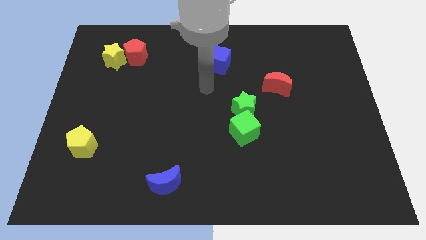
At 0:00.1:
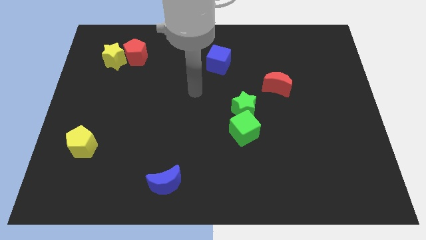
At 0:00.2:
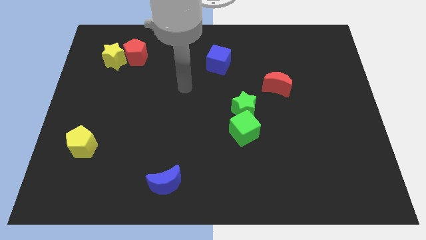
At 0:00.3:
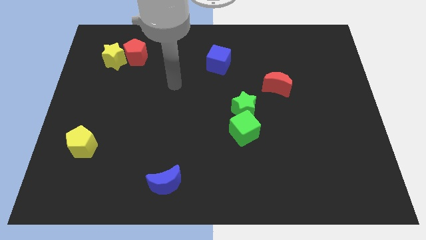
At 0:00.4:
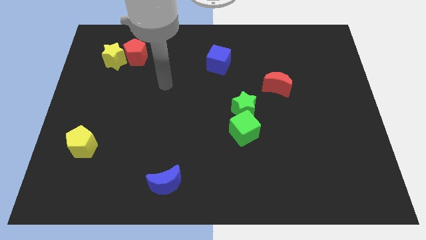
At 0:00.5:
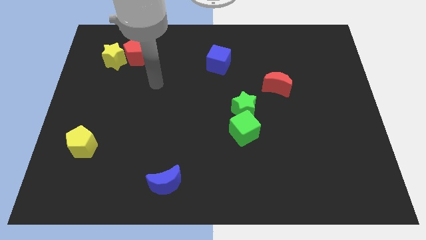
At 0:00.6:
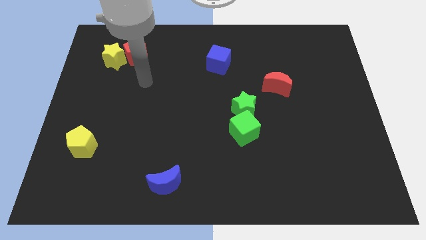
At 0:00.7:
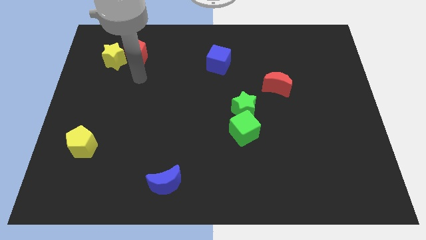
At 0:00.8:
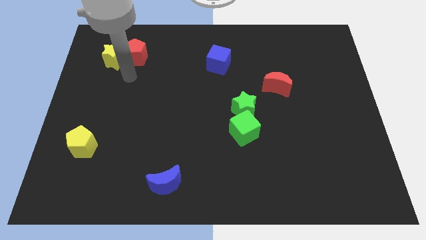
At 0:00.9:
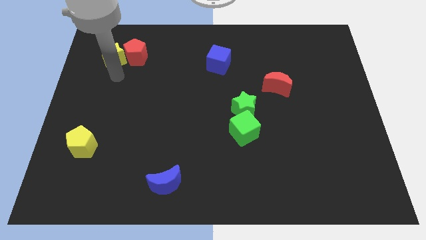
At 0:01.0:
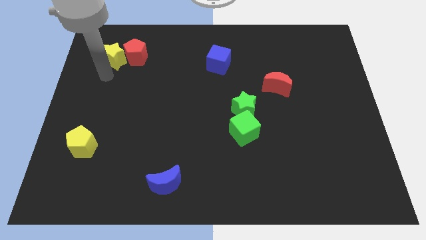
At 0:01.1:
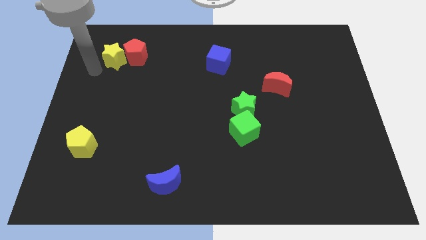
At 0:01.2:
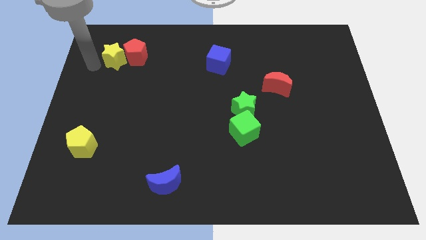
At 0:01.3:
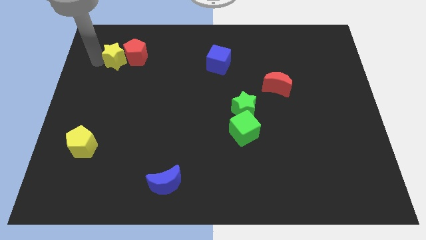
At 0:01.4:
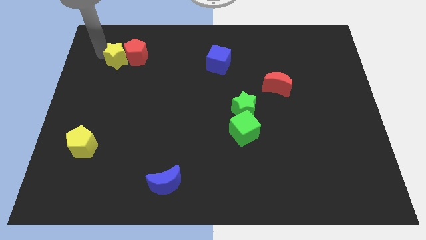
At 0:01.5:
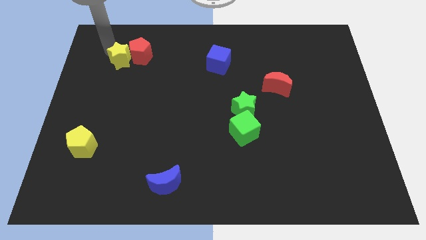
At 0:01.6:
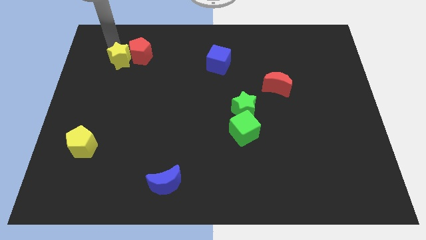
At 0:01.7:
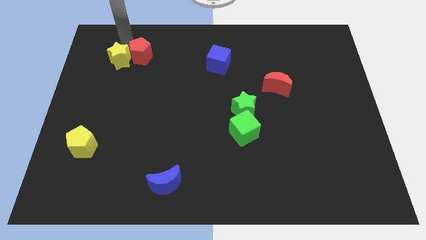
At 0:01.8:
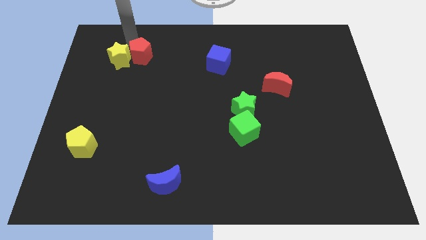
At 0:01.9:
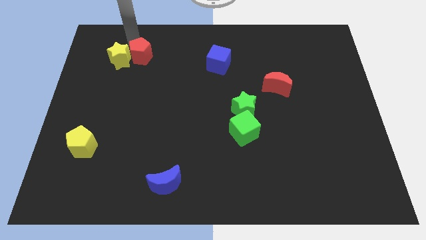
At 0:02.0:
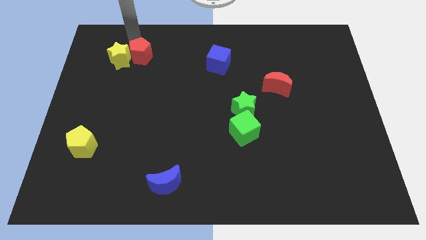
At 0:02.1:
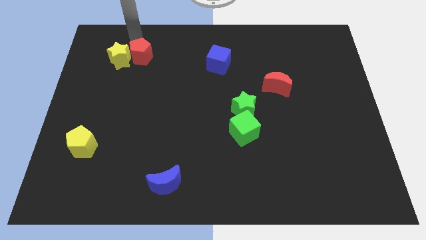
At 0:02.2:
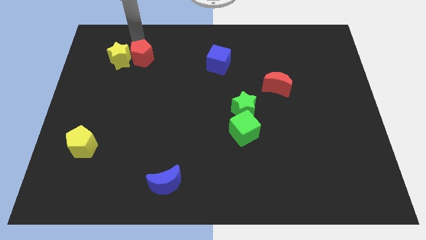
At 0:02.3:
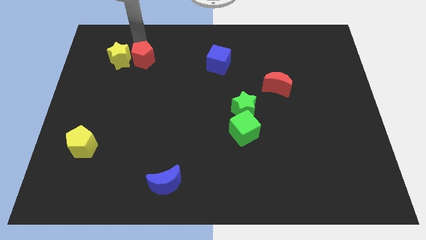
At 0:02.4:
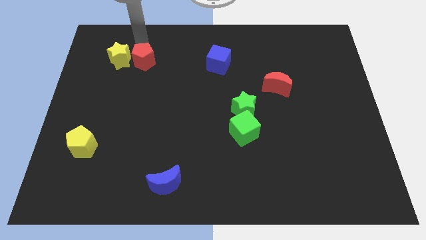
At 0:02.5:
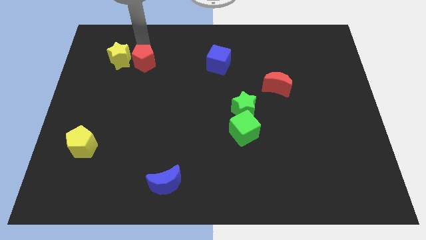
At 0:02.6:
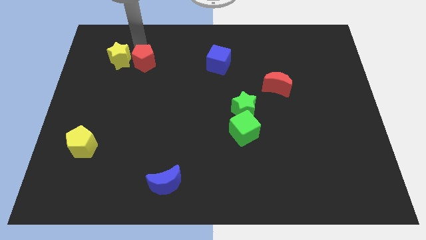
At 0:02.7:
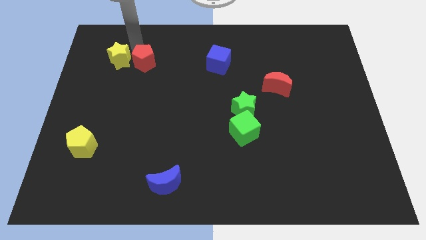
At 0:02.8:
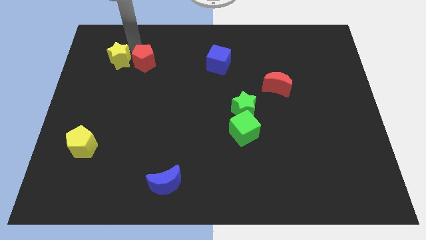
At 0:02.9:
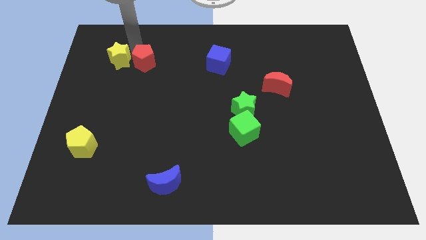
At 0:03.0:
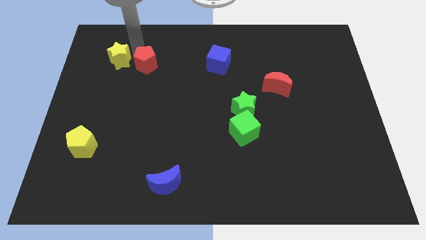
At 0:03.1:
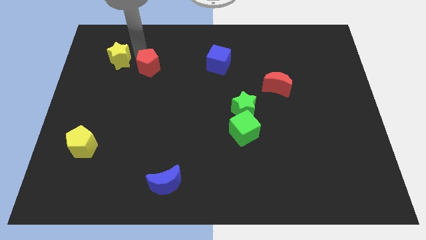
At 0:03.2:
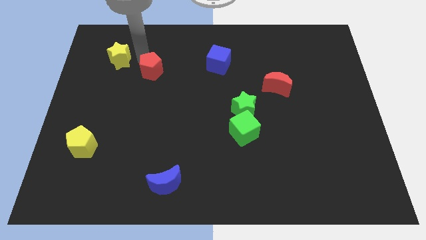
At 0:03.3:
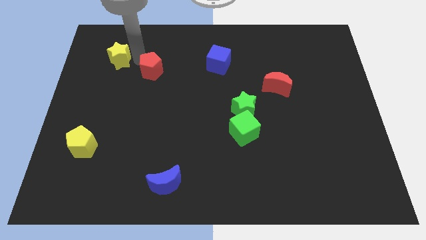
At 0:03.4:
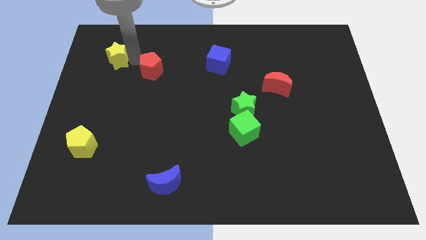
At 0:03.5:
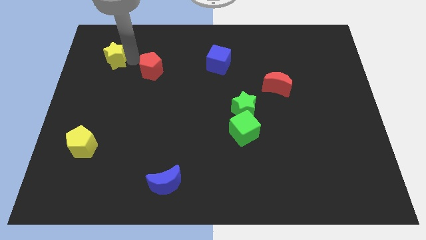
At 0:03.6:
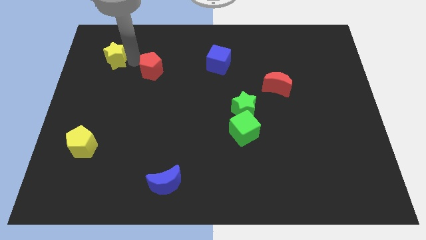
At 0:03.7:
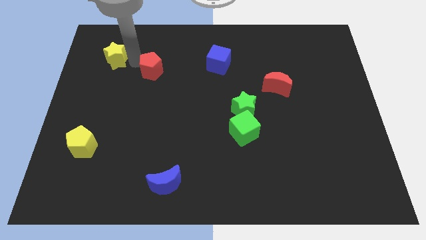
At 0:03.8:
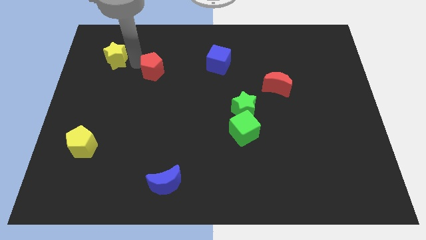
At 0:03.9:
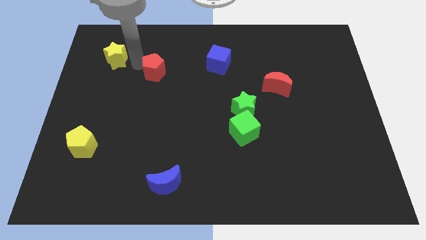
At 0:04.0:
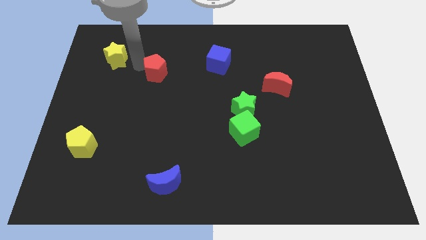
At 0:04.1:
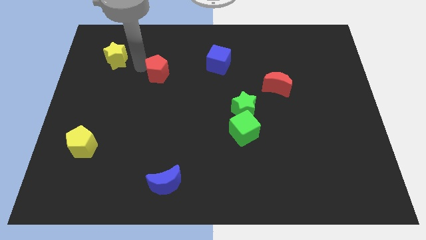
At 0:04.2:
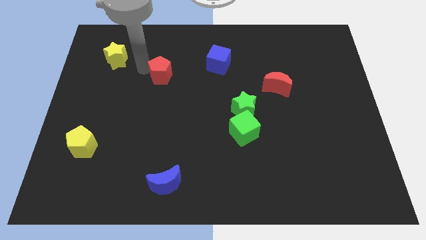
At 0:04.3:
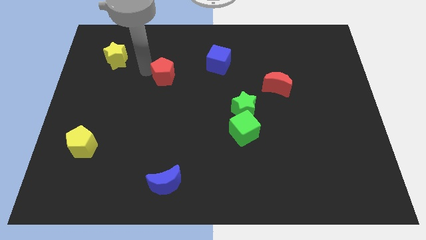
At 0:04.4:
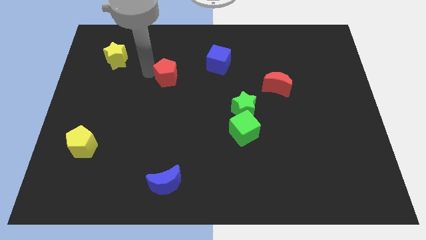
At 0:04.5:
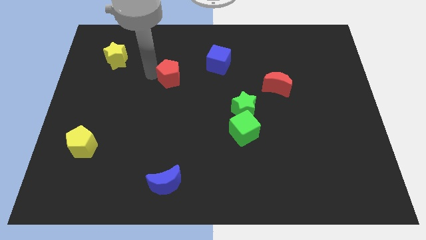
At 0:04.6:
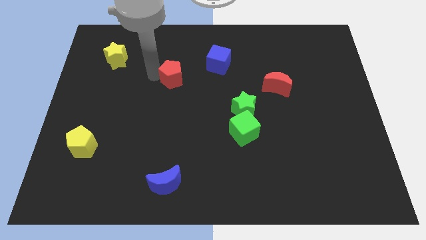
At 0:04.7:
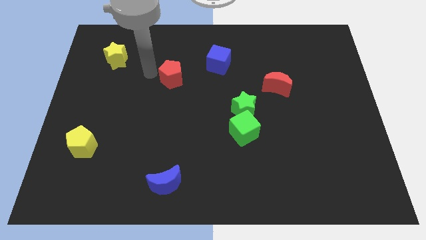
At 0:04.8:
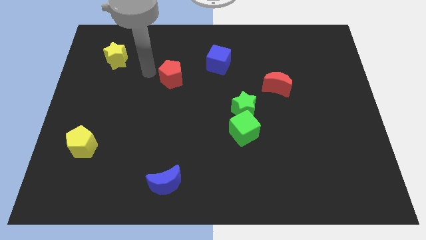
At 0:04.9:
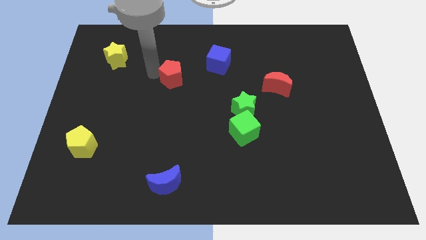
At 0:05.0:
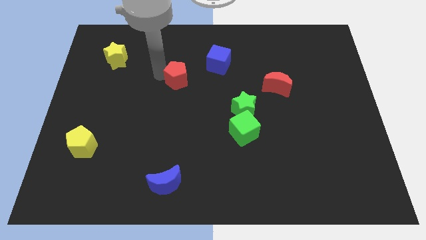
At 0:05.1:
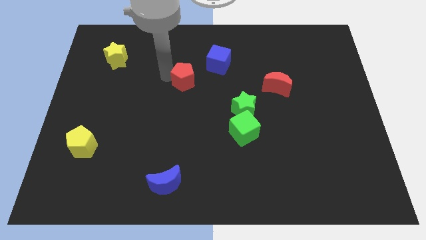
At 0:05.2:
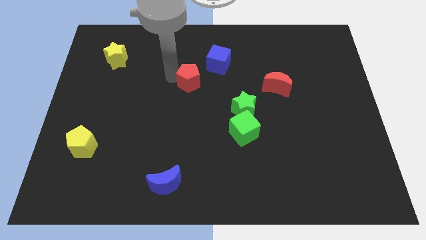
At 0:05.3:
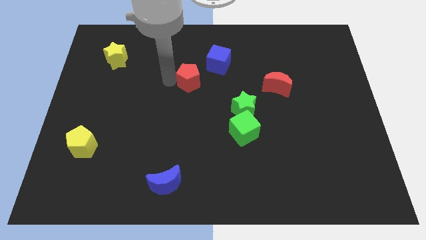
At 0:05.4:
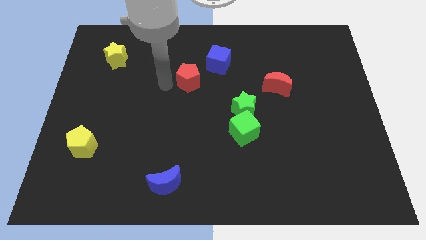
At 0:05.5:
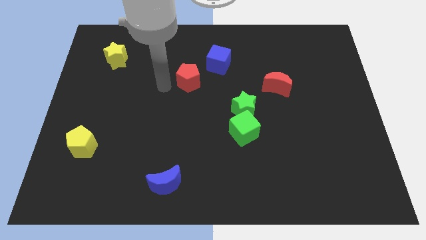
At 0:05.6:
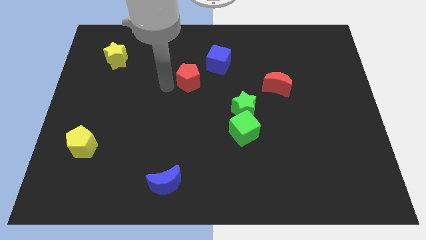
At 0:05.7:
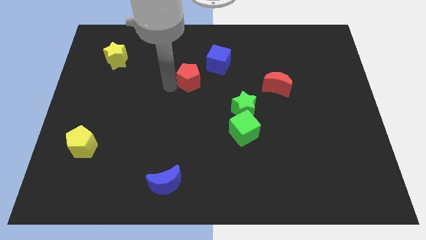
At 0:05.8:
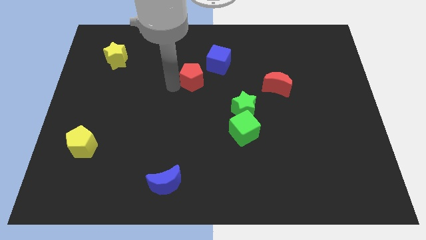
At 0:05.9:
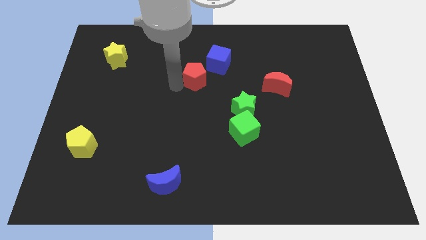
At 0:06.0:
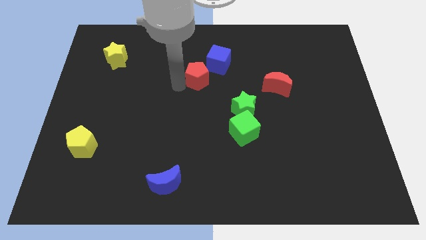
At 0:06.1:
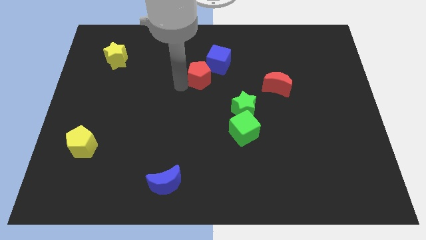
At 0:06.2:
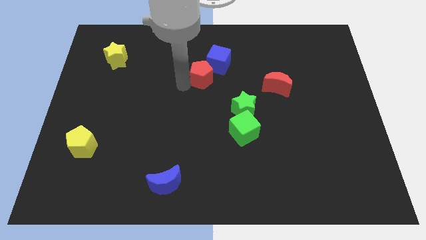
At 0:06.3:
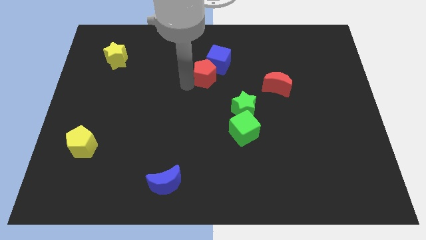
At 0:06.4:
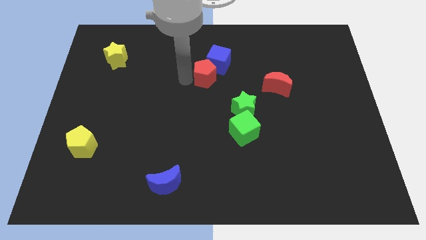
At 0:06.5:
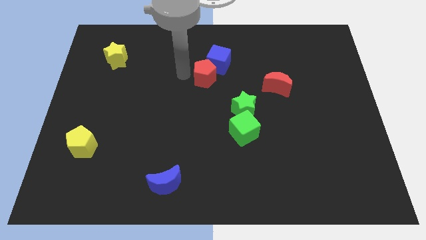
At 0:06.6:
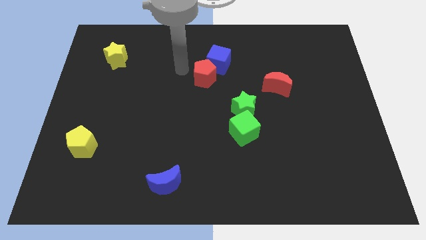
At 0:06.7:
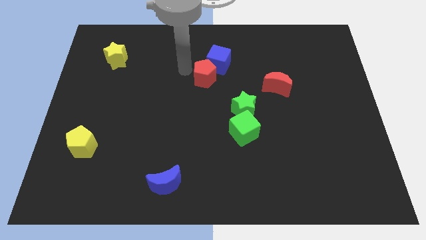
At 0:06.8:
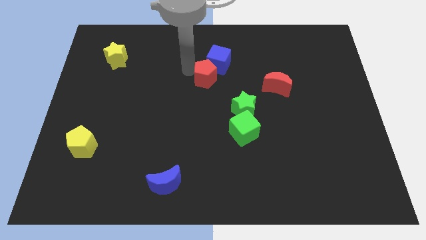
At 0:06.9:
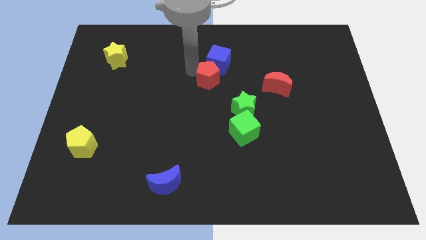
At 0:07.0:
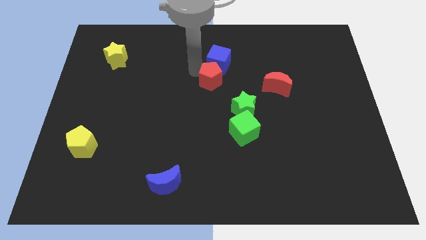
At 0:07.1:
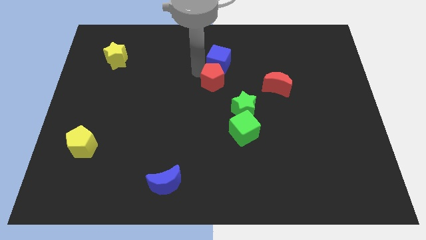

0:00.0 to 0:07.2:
move the red pentagon to the left of the red moon

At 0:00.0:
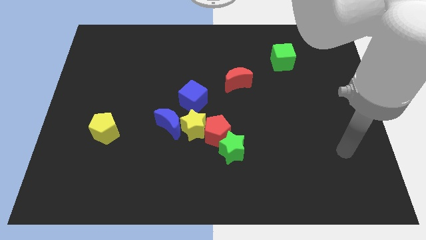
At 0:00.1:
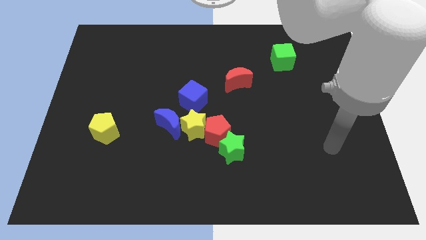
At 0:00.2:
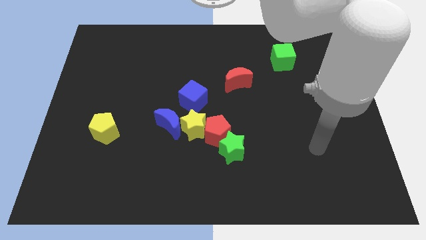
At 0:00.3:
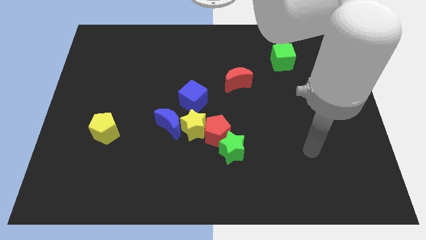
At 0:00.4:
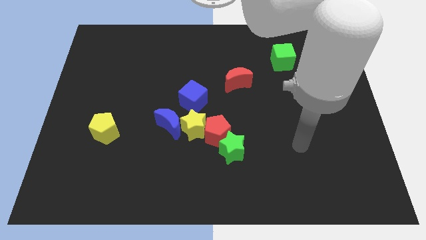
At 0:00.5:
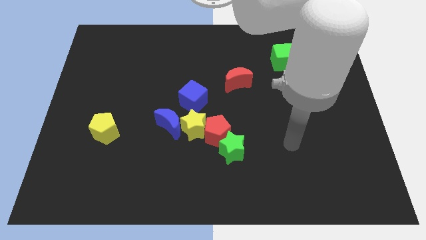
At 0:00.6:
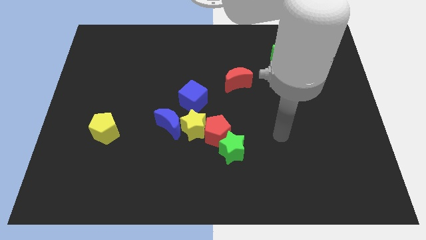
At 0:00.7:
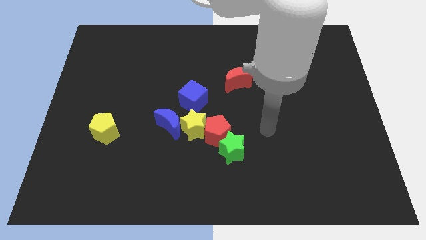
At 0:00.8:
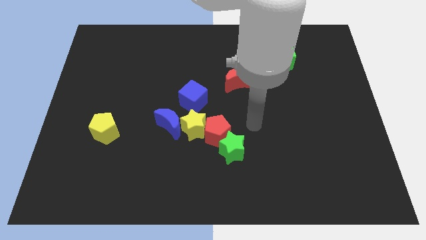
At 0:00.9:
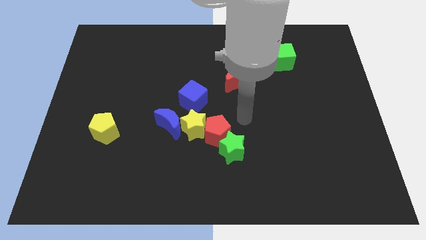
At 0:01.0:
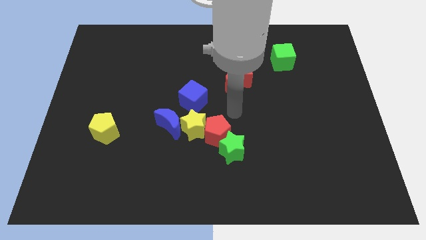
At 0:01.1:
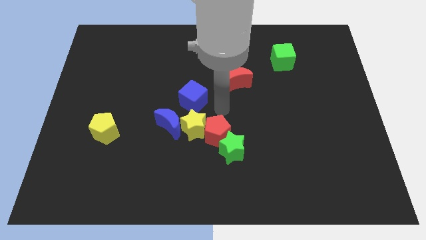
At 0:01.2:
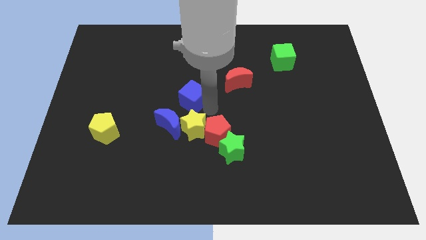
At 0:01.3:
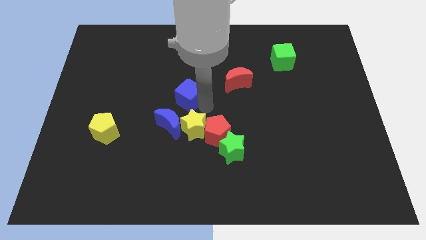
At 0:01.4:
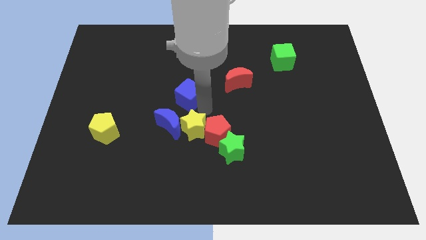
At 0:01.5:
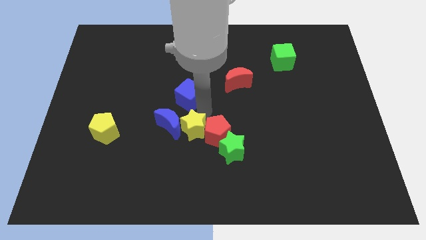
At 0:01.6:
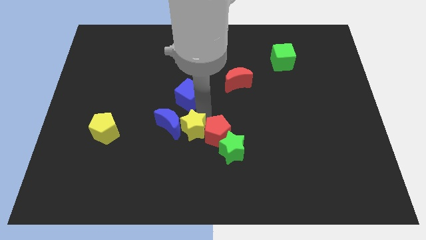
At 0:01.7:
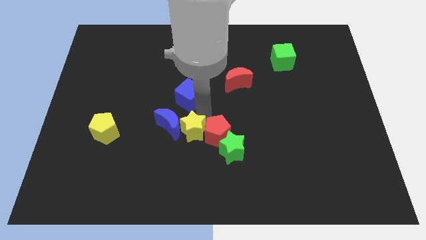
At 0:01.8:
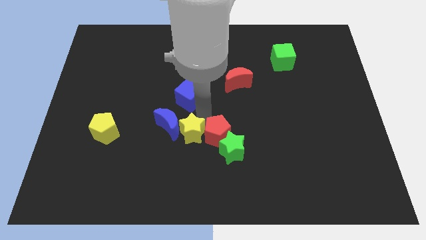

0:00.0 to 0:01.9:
put the yellow star left of the green star
